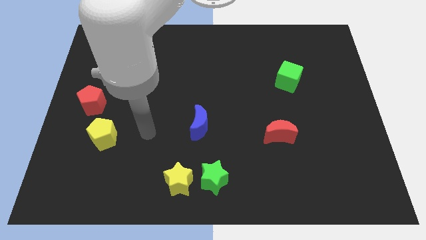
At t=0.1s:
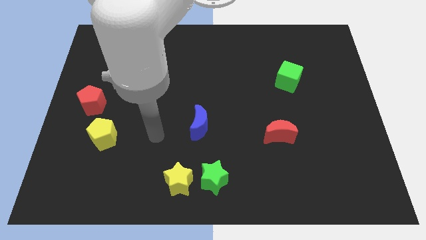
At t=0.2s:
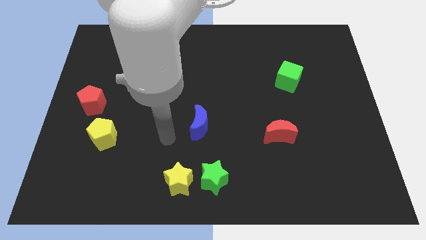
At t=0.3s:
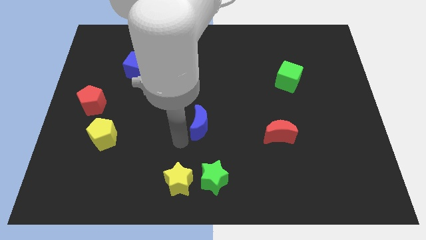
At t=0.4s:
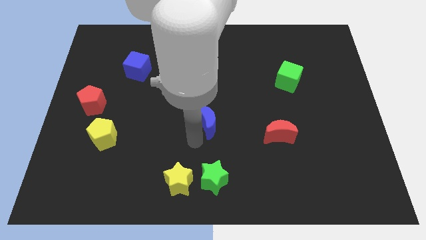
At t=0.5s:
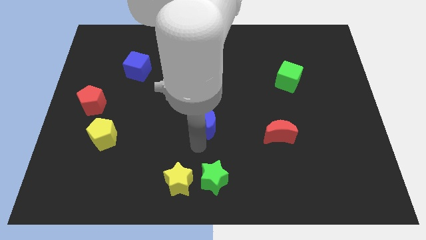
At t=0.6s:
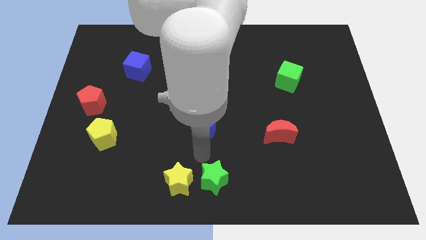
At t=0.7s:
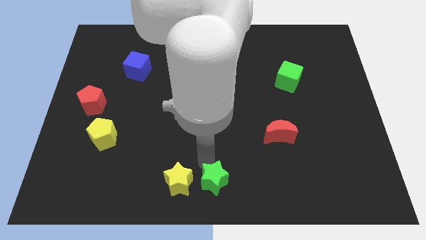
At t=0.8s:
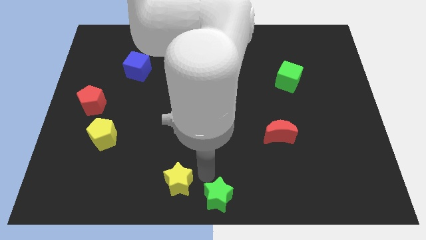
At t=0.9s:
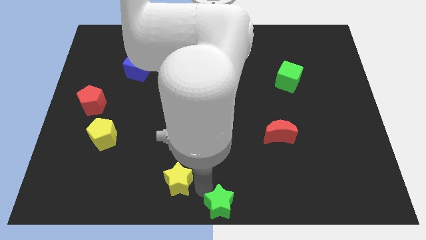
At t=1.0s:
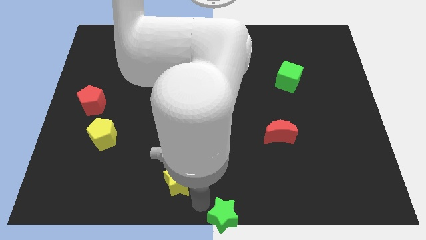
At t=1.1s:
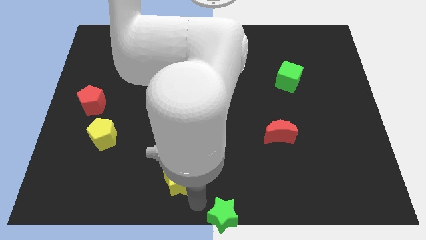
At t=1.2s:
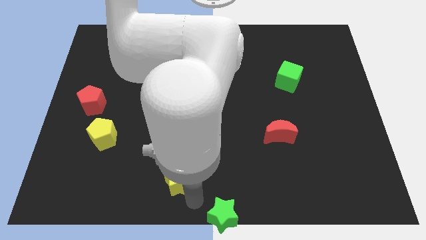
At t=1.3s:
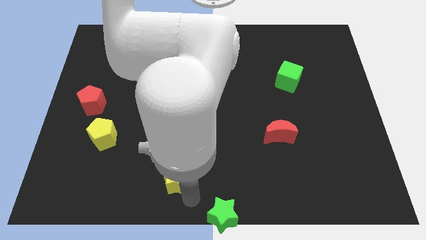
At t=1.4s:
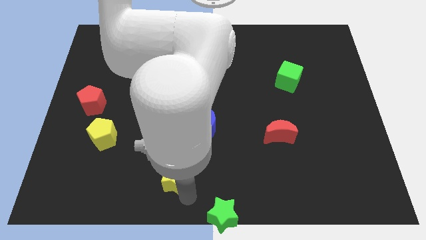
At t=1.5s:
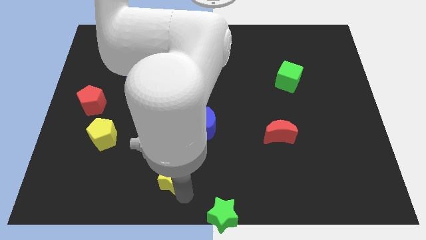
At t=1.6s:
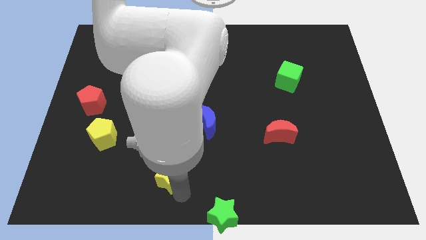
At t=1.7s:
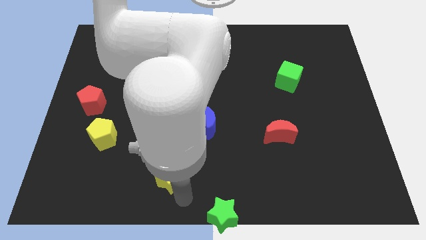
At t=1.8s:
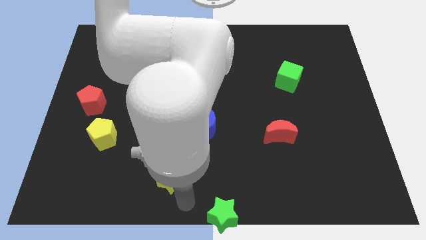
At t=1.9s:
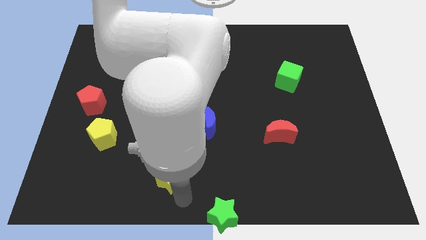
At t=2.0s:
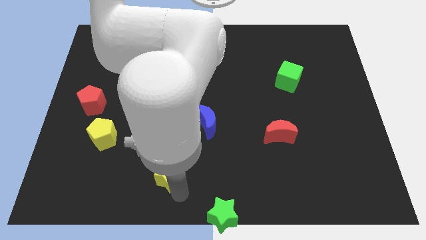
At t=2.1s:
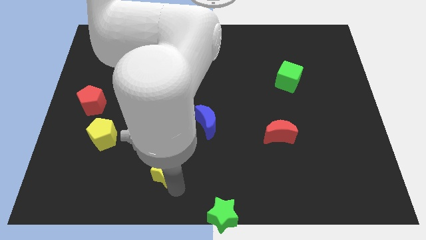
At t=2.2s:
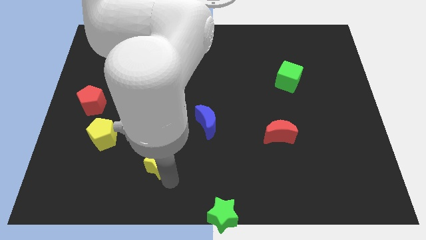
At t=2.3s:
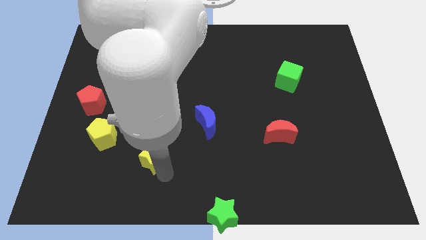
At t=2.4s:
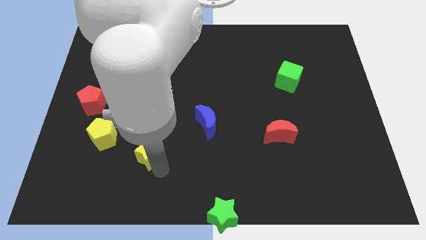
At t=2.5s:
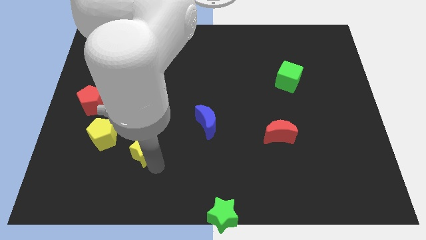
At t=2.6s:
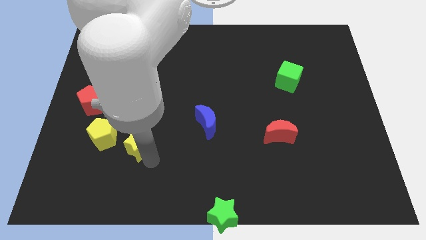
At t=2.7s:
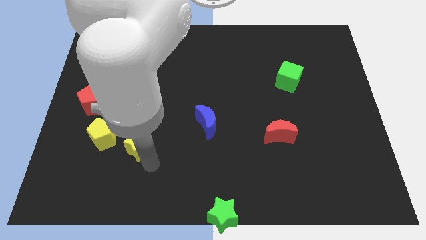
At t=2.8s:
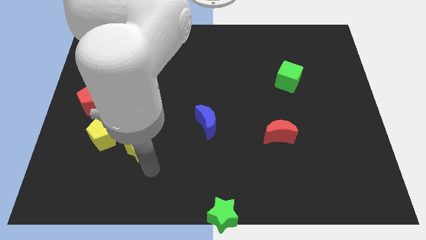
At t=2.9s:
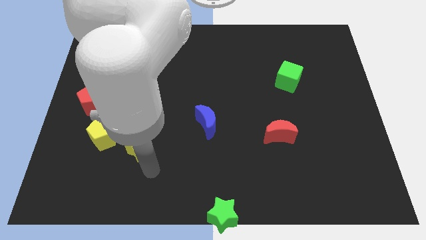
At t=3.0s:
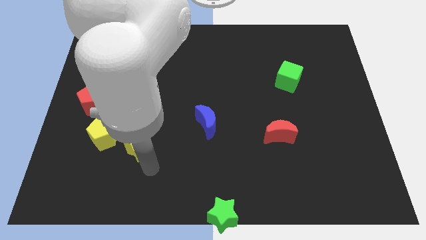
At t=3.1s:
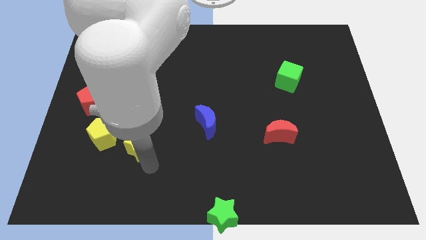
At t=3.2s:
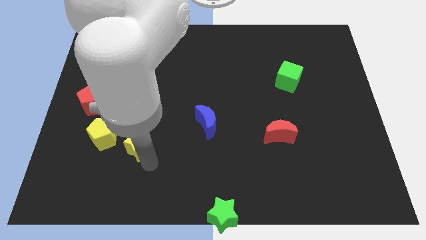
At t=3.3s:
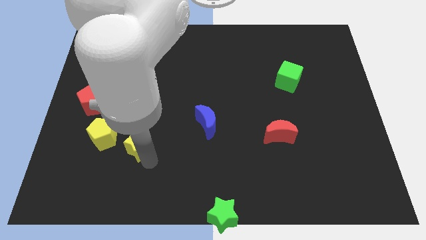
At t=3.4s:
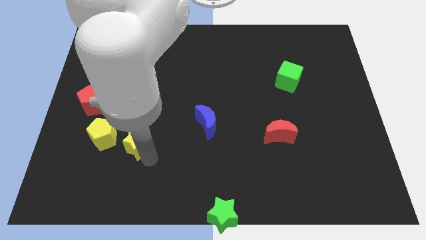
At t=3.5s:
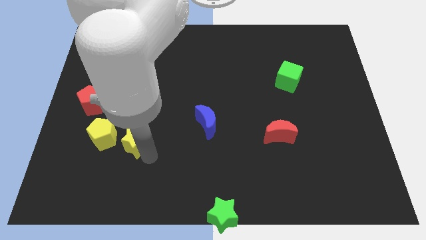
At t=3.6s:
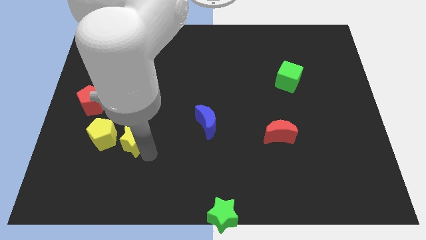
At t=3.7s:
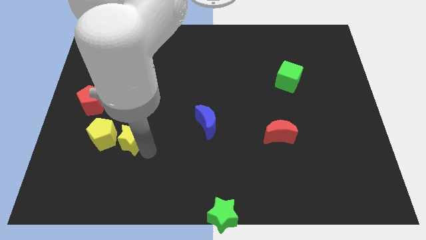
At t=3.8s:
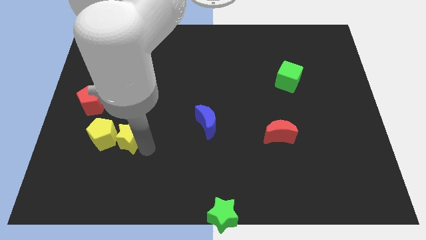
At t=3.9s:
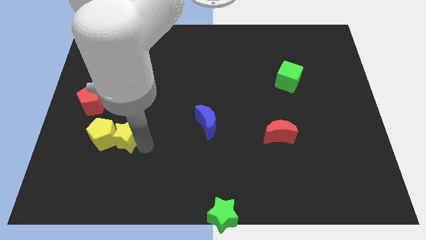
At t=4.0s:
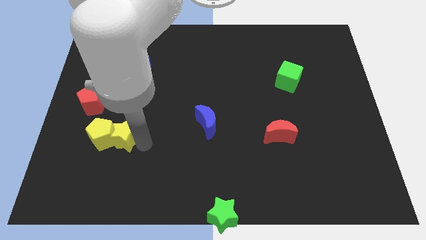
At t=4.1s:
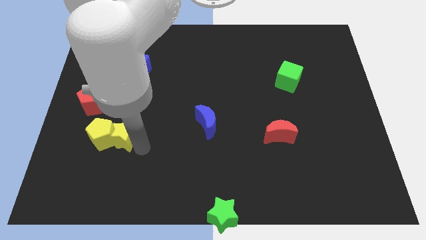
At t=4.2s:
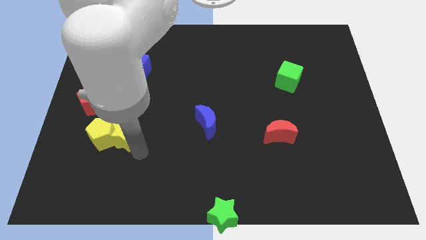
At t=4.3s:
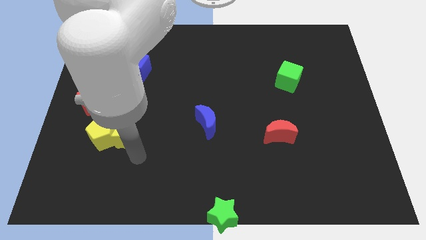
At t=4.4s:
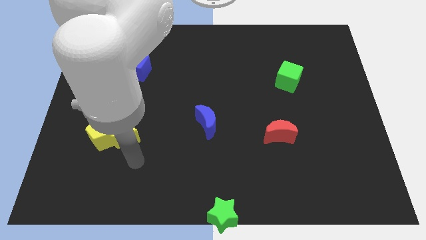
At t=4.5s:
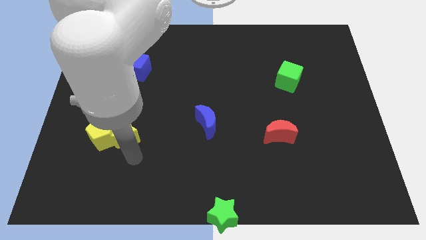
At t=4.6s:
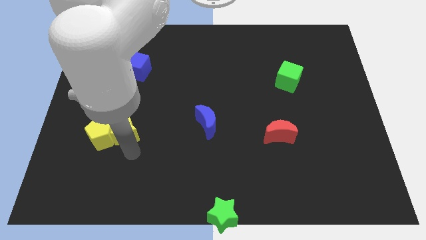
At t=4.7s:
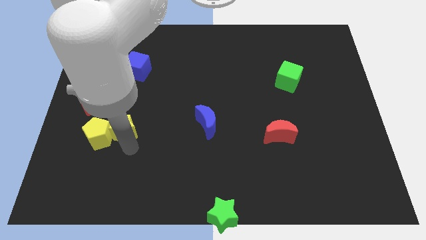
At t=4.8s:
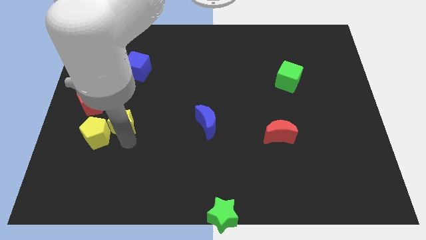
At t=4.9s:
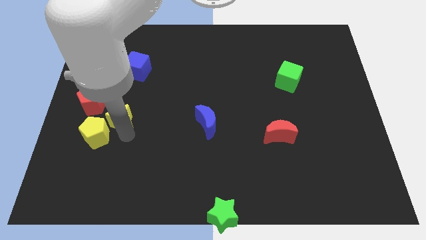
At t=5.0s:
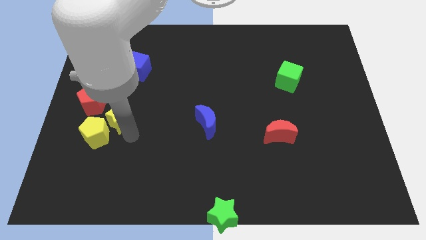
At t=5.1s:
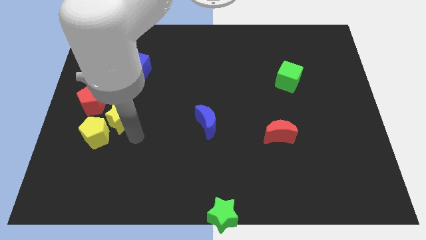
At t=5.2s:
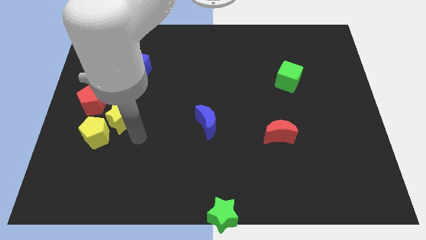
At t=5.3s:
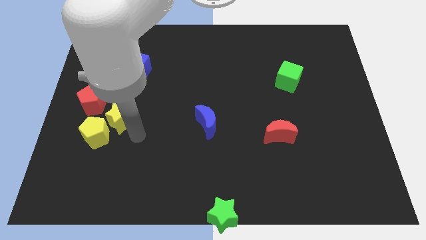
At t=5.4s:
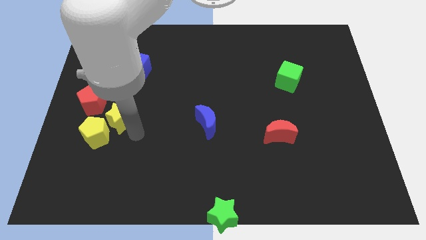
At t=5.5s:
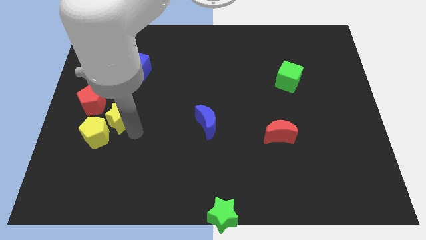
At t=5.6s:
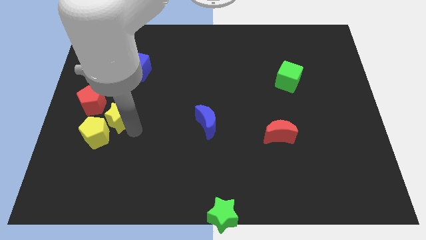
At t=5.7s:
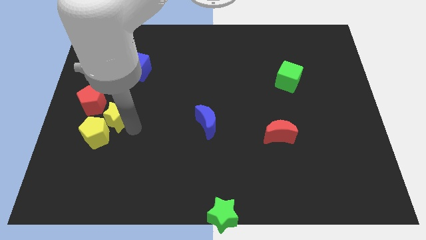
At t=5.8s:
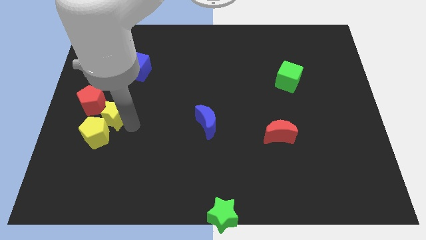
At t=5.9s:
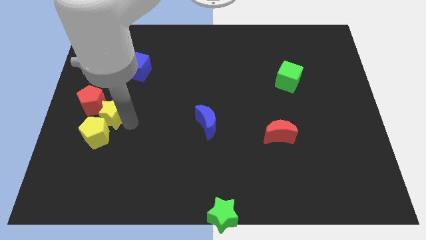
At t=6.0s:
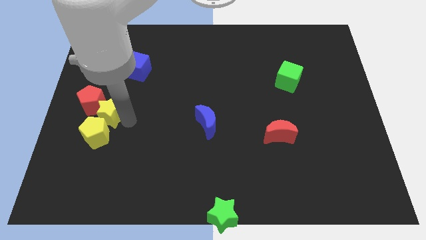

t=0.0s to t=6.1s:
push the yellow star close to the red pentagon

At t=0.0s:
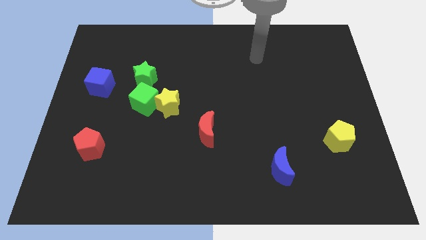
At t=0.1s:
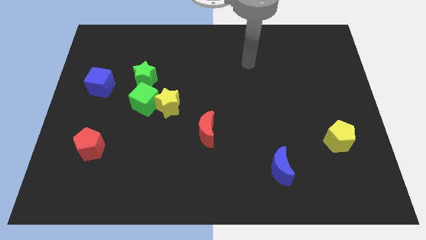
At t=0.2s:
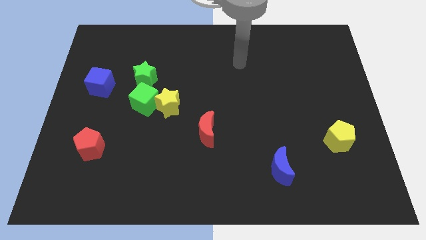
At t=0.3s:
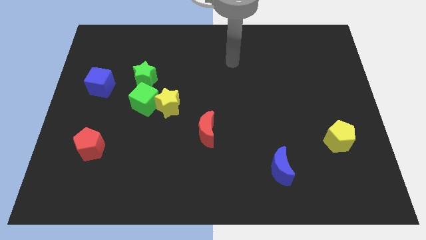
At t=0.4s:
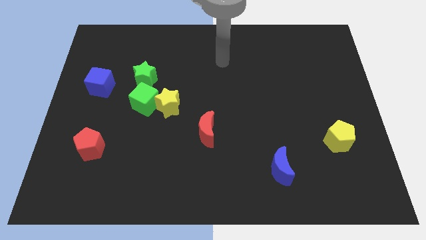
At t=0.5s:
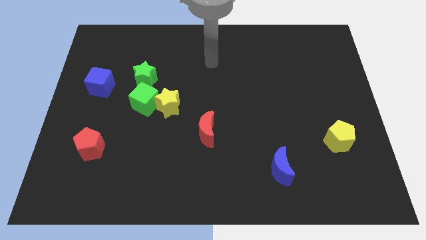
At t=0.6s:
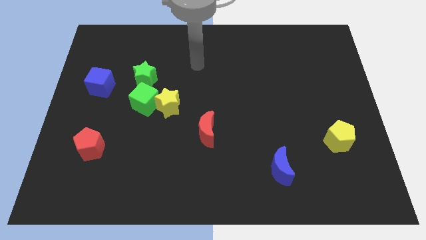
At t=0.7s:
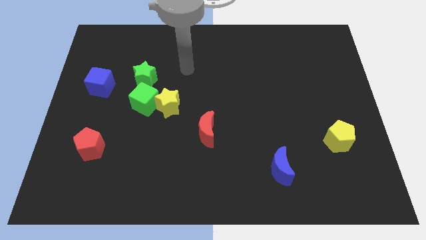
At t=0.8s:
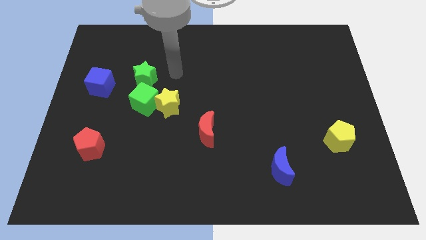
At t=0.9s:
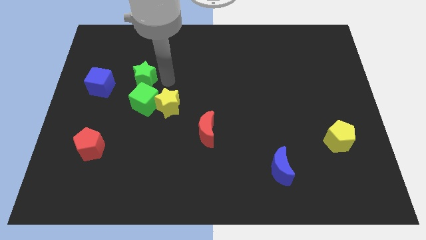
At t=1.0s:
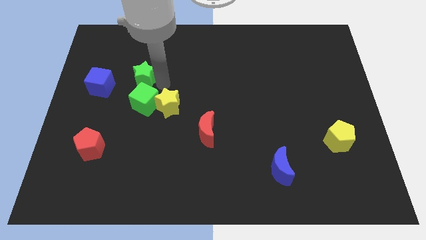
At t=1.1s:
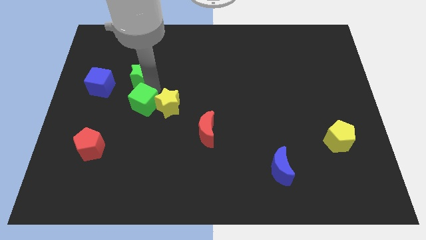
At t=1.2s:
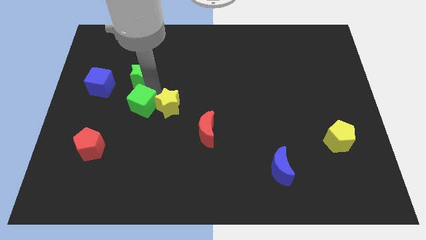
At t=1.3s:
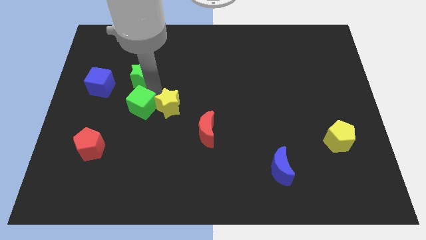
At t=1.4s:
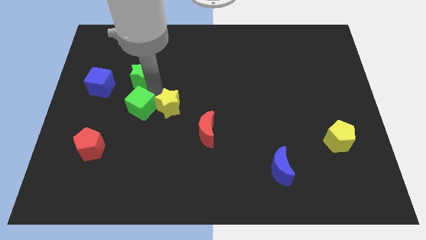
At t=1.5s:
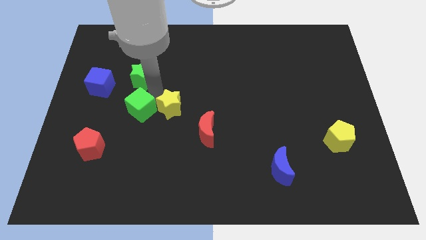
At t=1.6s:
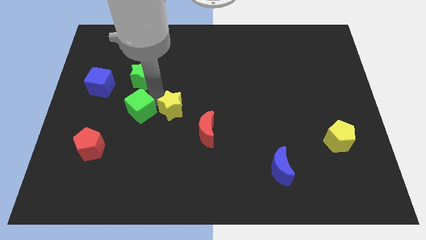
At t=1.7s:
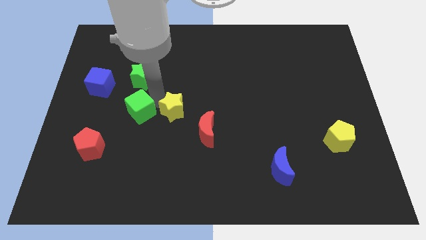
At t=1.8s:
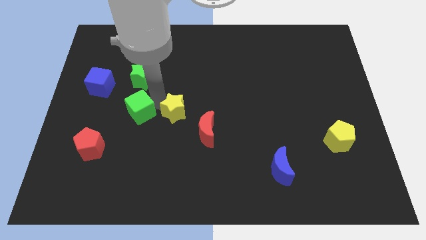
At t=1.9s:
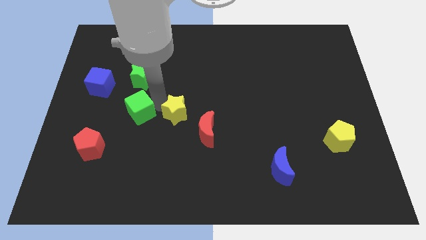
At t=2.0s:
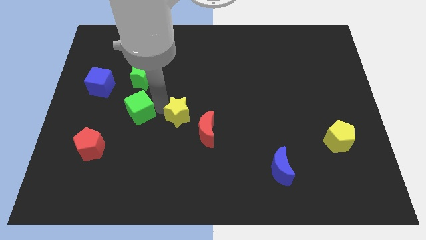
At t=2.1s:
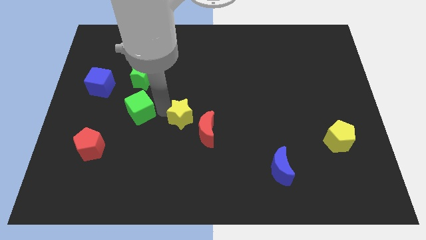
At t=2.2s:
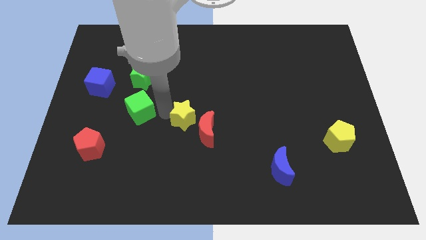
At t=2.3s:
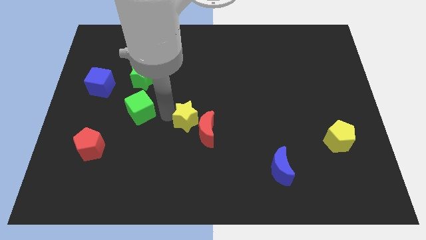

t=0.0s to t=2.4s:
put the yellow star towards the red moon

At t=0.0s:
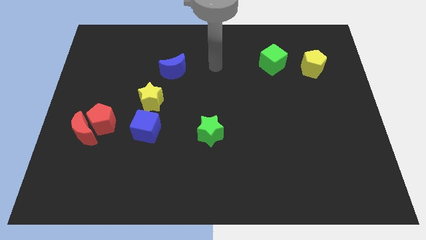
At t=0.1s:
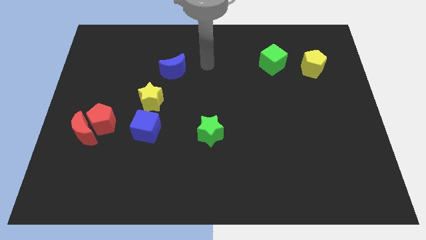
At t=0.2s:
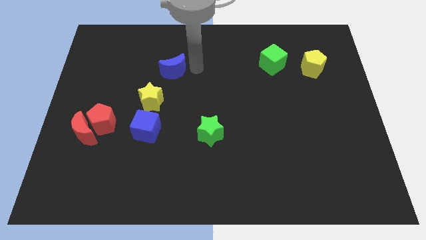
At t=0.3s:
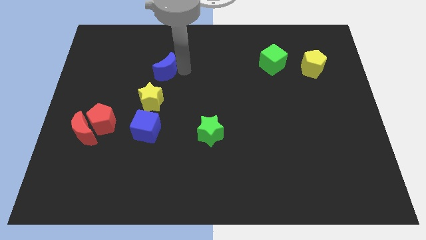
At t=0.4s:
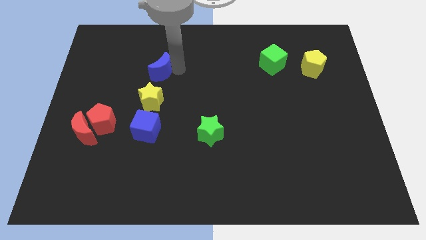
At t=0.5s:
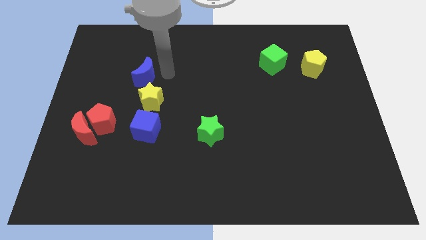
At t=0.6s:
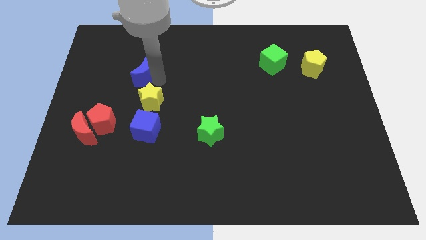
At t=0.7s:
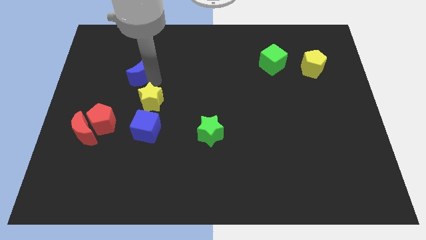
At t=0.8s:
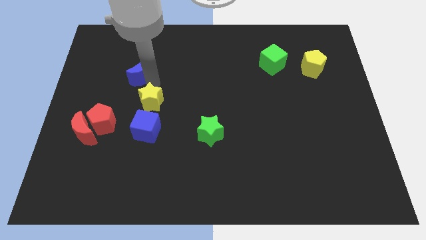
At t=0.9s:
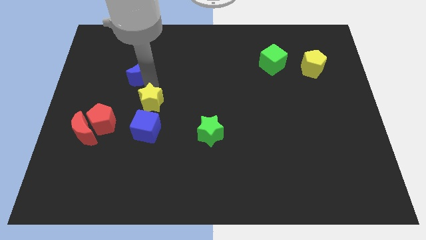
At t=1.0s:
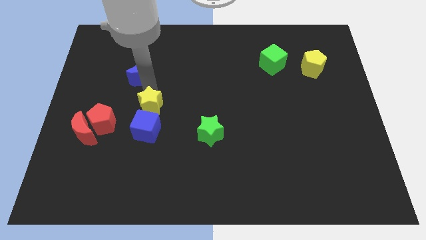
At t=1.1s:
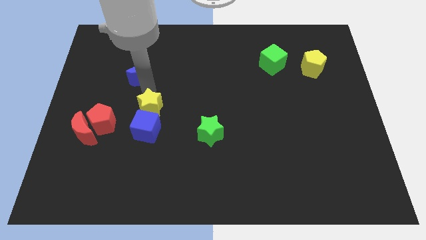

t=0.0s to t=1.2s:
push the yellow star close to the blue cube
